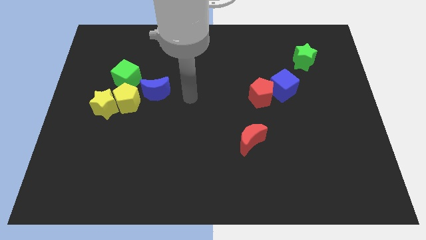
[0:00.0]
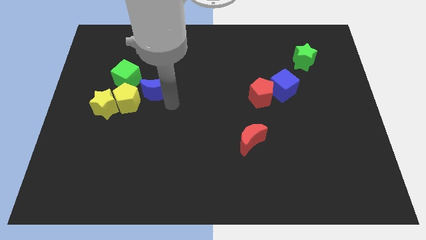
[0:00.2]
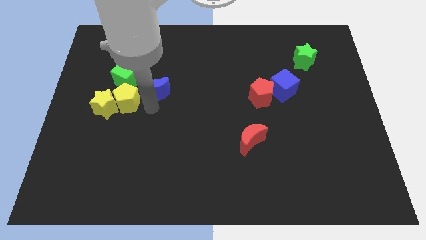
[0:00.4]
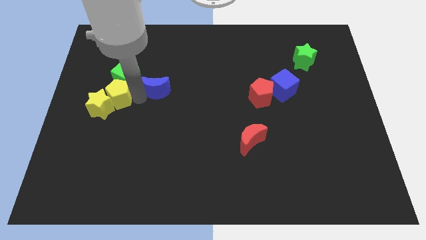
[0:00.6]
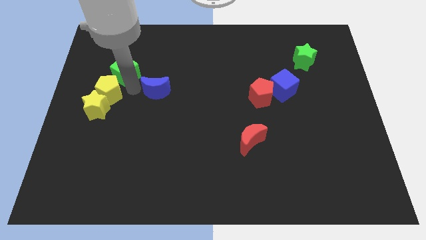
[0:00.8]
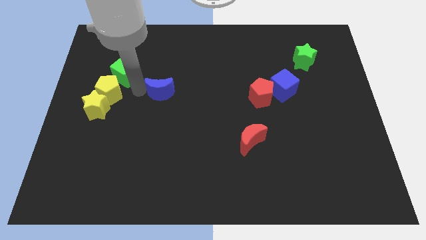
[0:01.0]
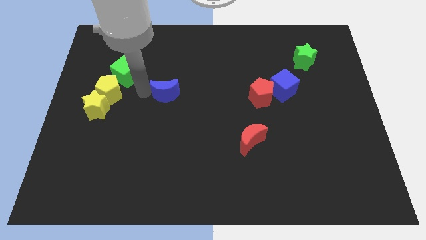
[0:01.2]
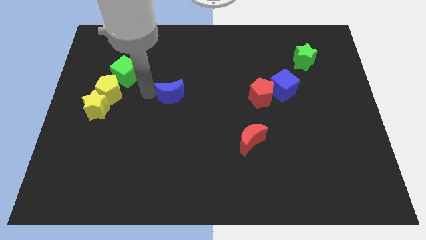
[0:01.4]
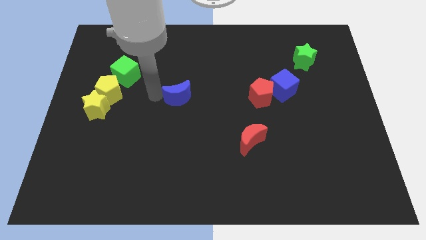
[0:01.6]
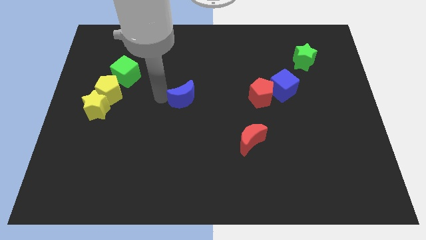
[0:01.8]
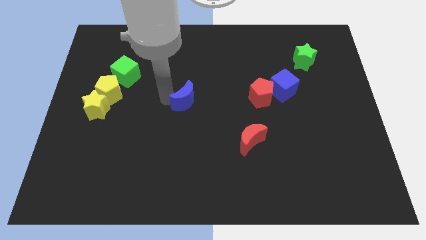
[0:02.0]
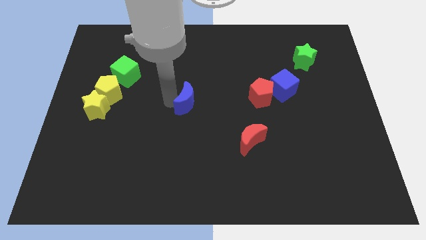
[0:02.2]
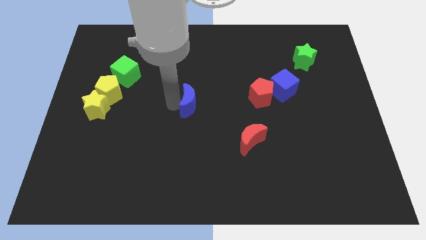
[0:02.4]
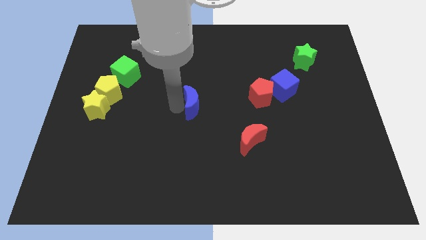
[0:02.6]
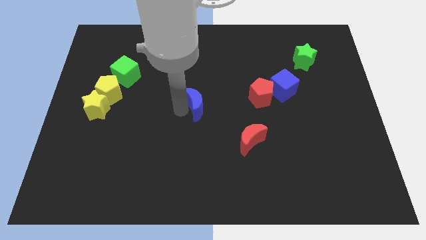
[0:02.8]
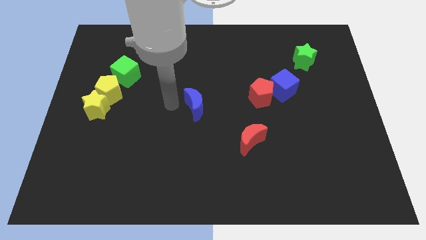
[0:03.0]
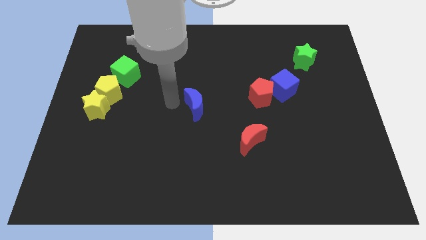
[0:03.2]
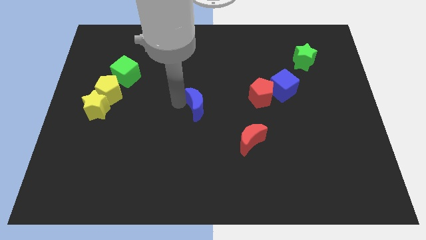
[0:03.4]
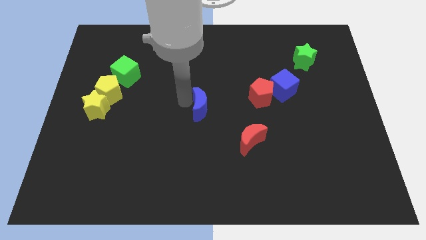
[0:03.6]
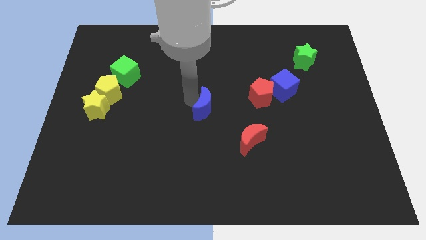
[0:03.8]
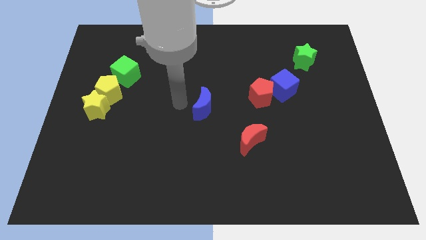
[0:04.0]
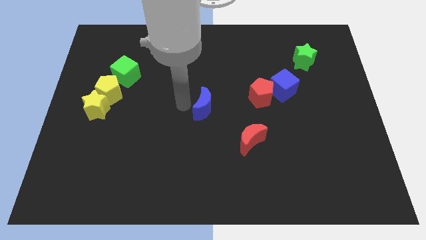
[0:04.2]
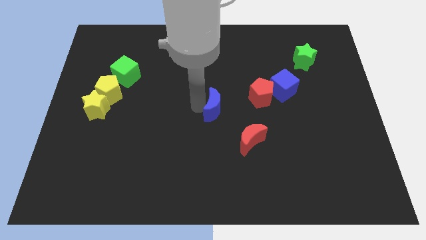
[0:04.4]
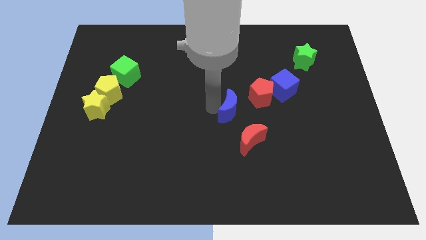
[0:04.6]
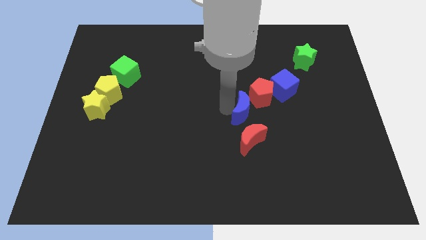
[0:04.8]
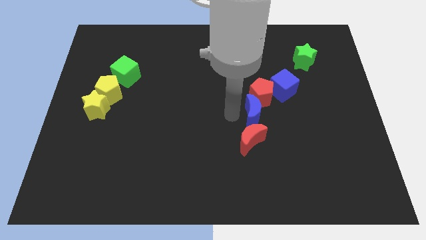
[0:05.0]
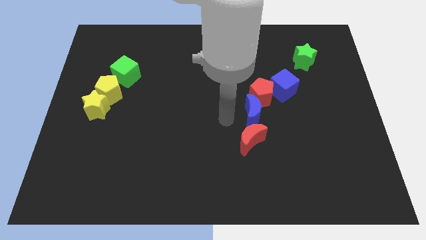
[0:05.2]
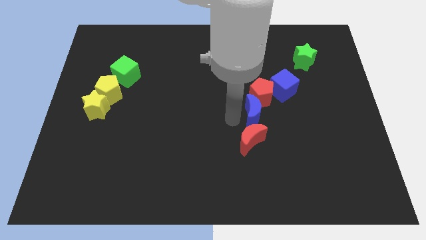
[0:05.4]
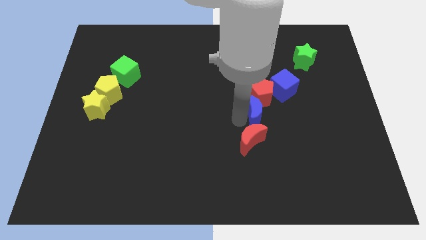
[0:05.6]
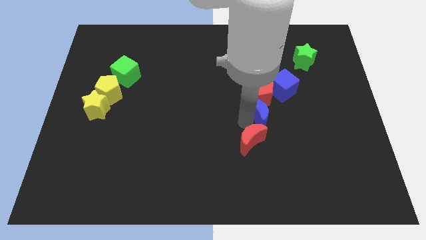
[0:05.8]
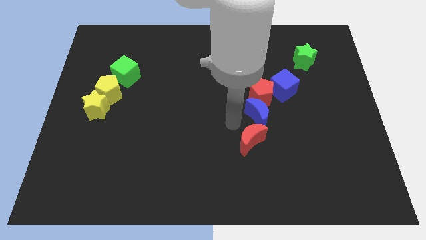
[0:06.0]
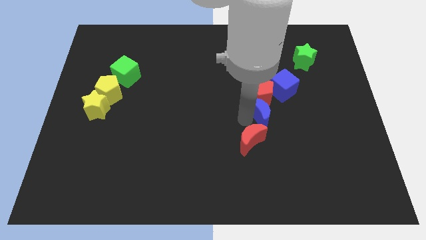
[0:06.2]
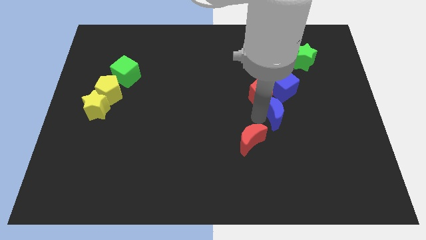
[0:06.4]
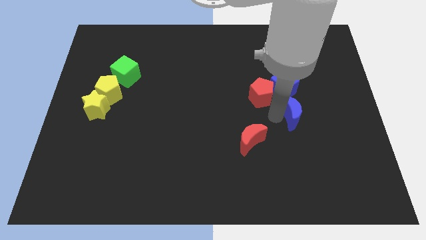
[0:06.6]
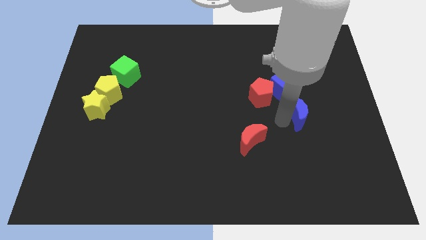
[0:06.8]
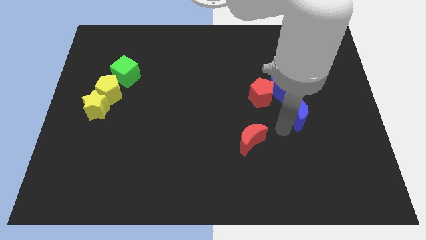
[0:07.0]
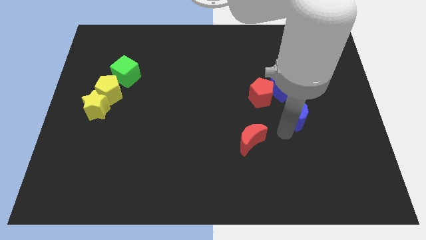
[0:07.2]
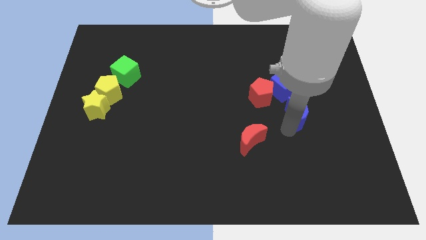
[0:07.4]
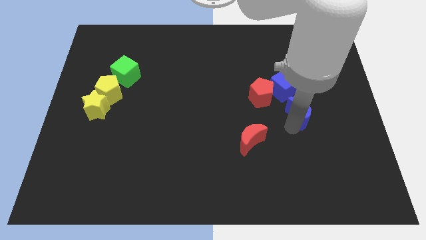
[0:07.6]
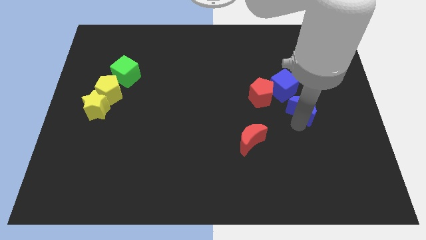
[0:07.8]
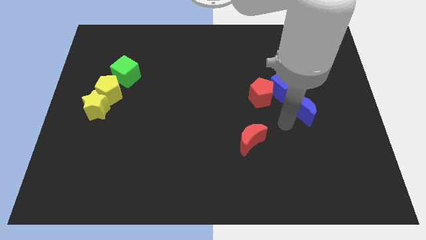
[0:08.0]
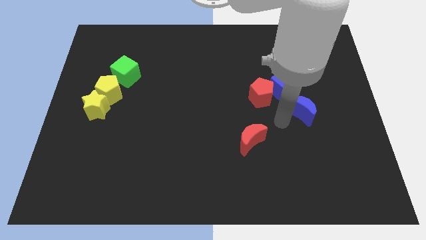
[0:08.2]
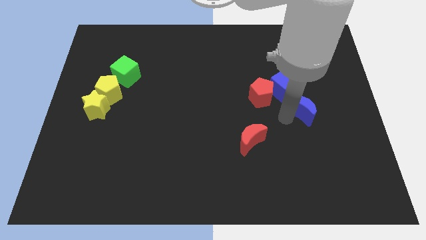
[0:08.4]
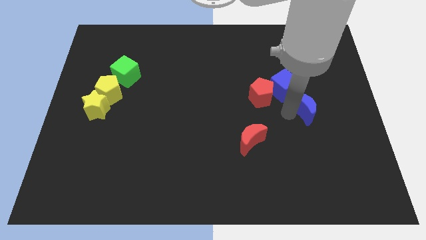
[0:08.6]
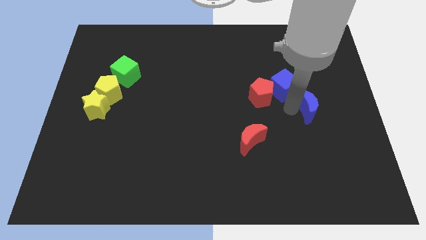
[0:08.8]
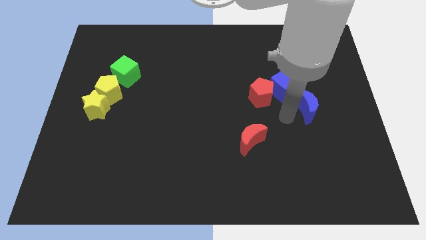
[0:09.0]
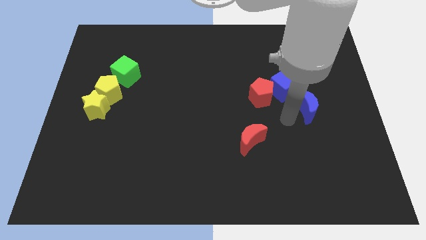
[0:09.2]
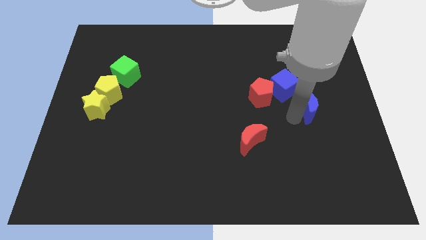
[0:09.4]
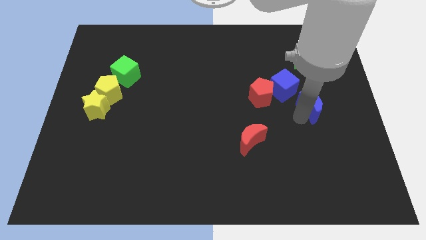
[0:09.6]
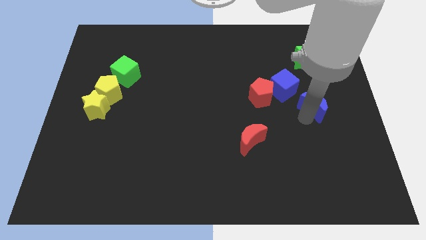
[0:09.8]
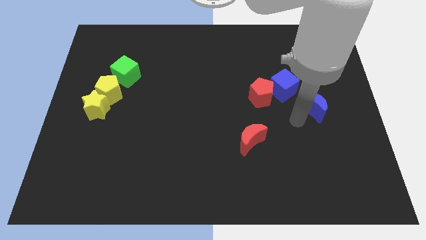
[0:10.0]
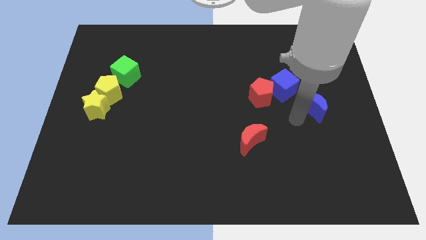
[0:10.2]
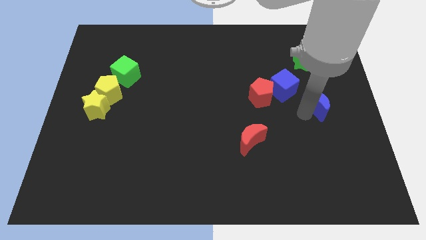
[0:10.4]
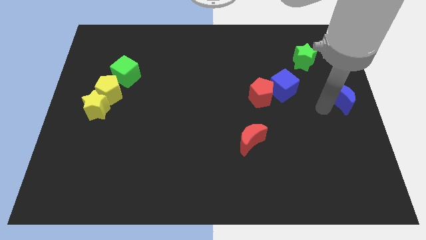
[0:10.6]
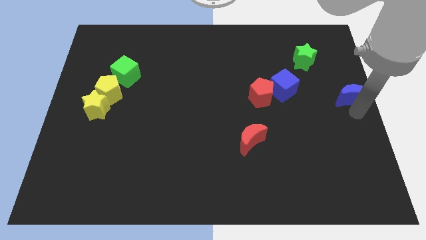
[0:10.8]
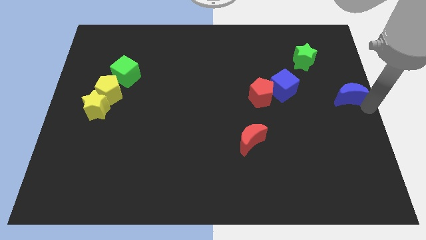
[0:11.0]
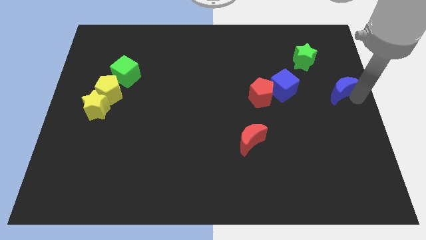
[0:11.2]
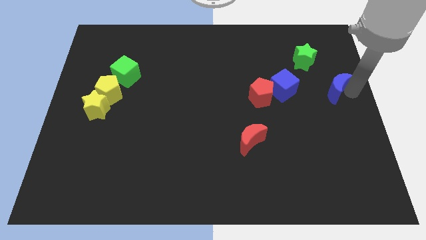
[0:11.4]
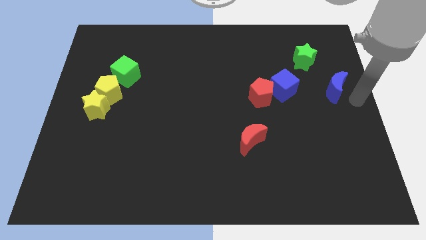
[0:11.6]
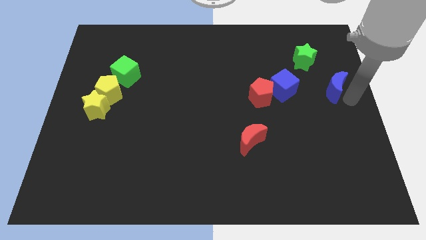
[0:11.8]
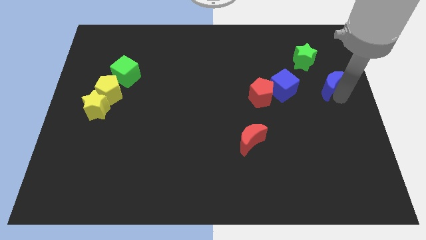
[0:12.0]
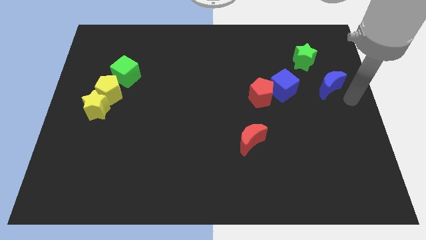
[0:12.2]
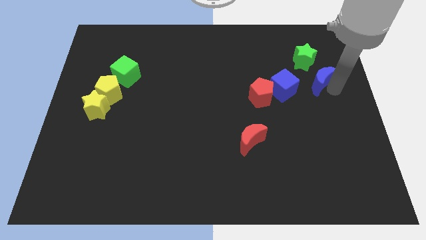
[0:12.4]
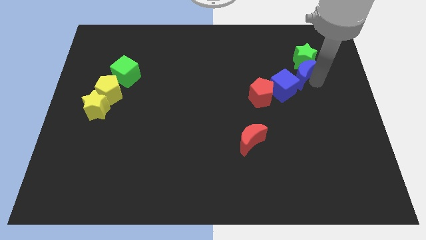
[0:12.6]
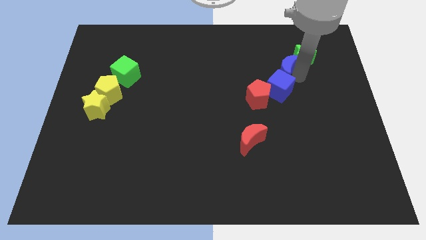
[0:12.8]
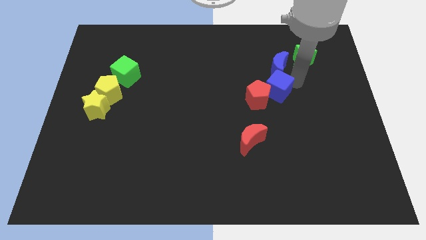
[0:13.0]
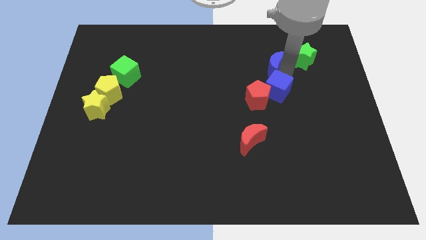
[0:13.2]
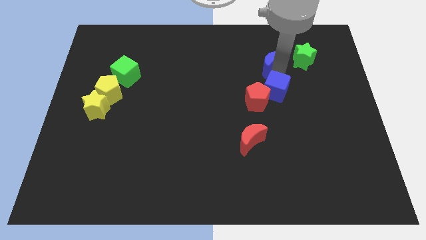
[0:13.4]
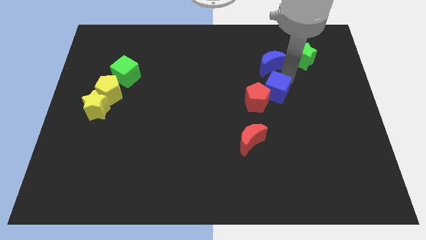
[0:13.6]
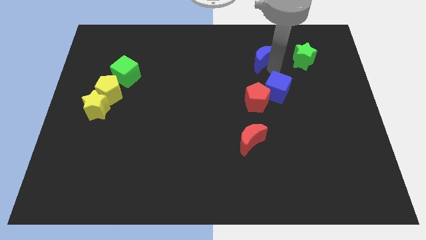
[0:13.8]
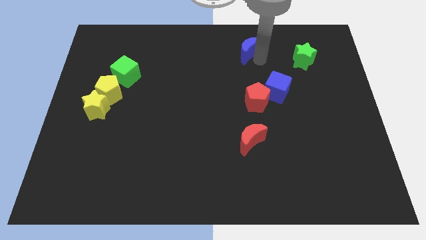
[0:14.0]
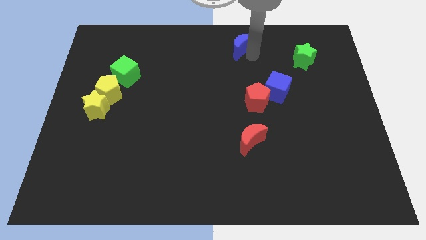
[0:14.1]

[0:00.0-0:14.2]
slide the blue moon to the top side
